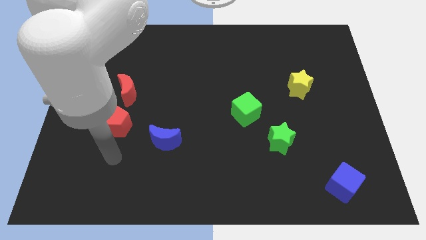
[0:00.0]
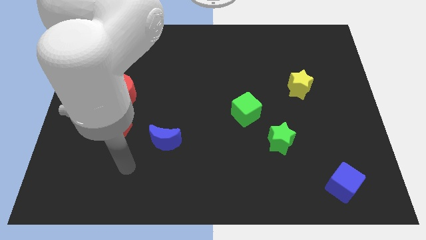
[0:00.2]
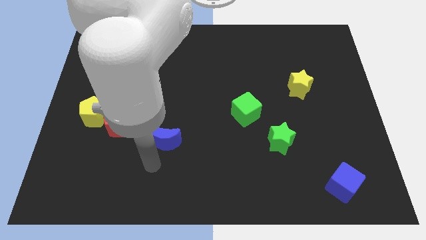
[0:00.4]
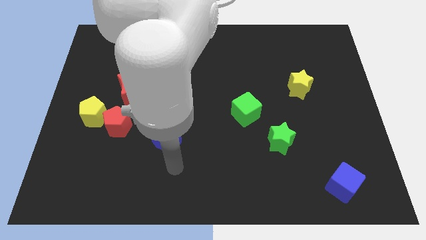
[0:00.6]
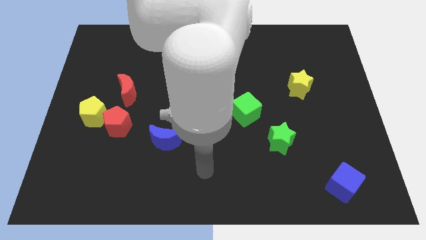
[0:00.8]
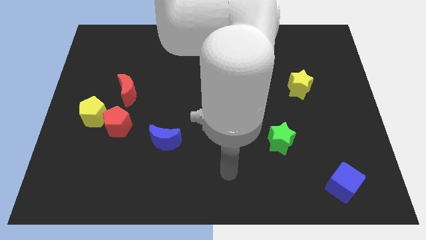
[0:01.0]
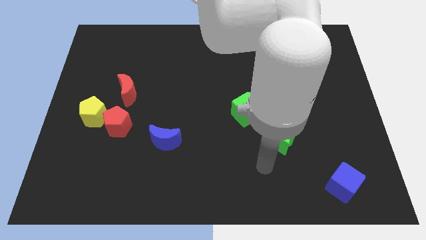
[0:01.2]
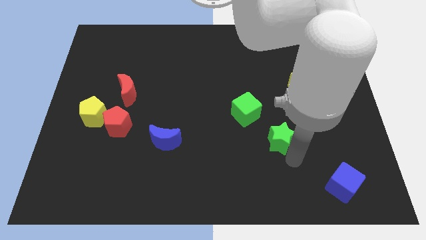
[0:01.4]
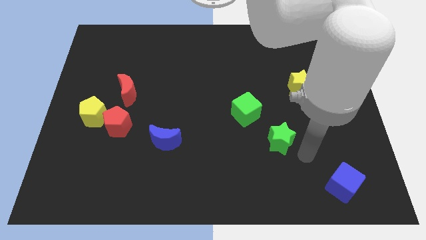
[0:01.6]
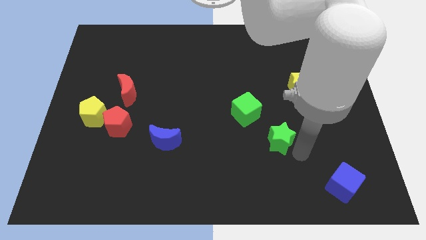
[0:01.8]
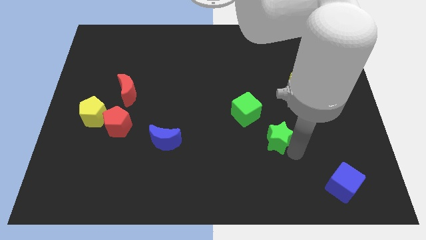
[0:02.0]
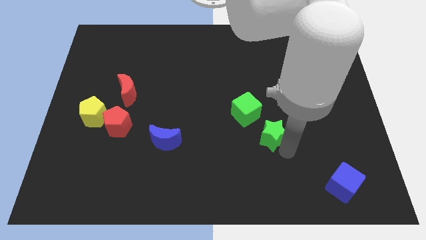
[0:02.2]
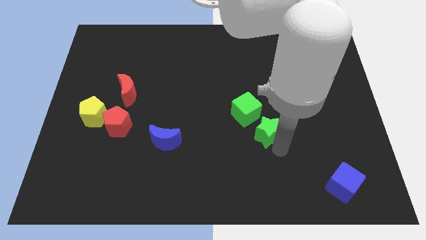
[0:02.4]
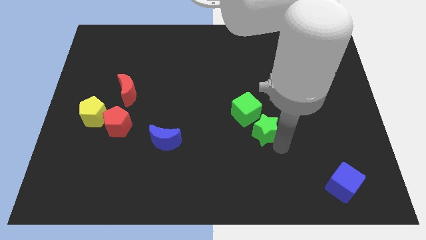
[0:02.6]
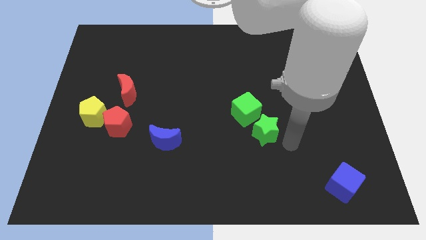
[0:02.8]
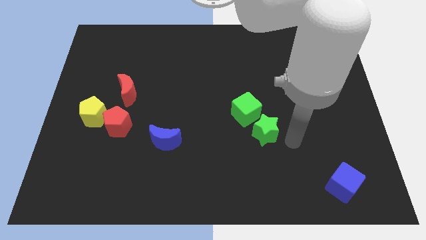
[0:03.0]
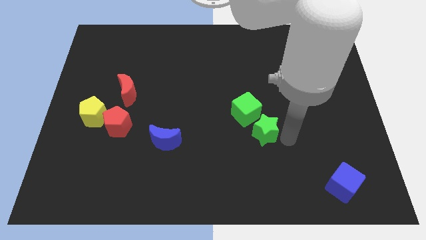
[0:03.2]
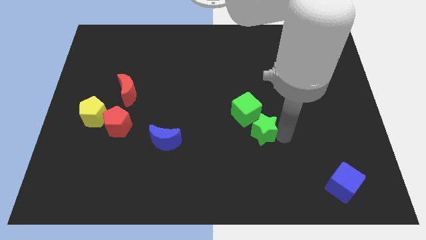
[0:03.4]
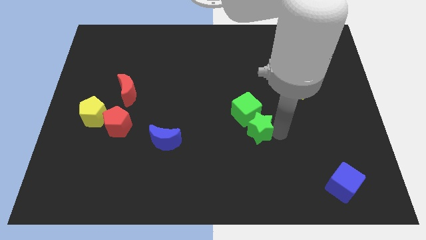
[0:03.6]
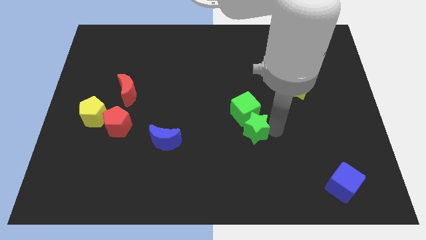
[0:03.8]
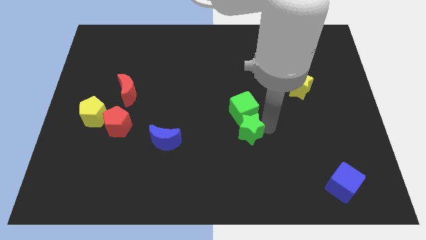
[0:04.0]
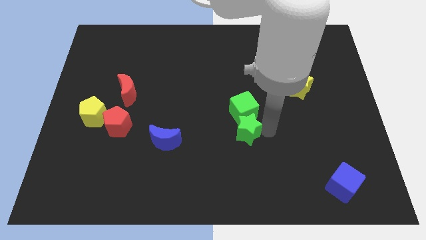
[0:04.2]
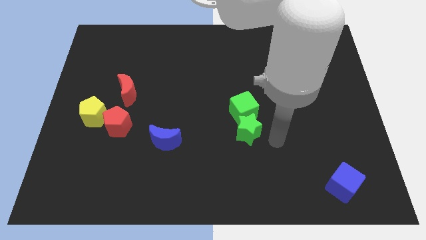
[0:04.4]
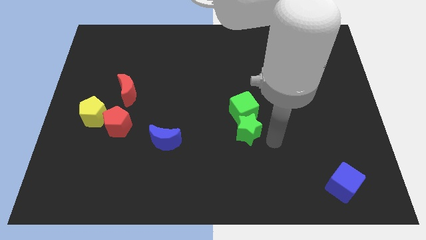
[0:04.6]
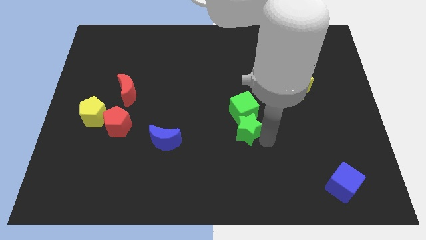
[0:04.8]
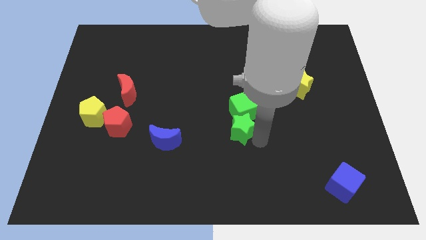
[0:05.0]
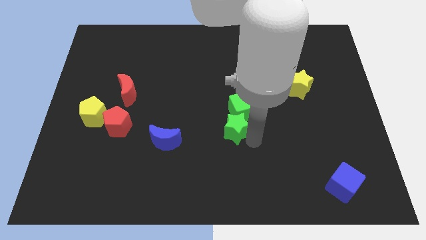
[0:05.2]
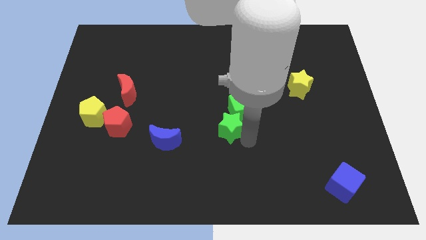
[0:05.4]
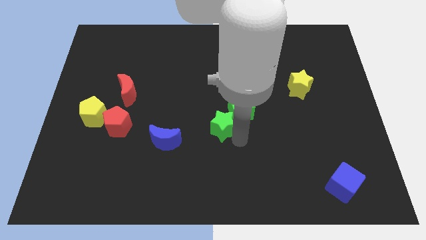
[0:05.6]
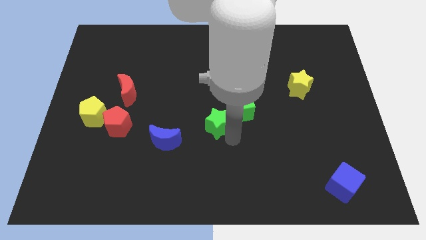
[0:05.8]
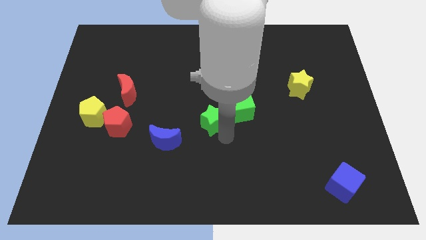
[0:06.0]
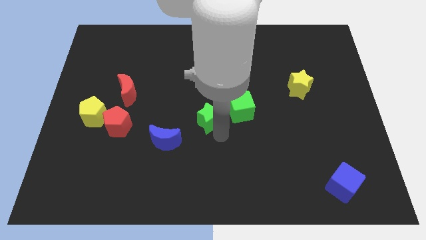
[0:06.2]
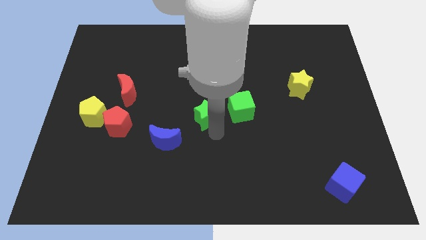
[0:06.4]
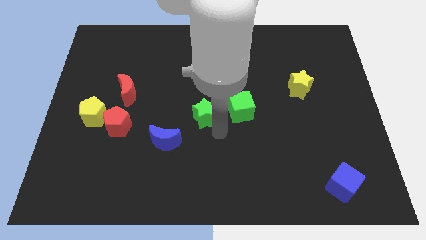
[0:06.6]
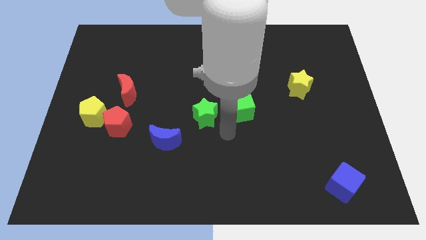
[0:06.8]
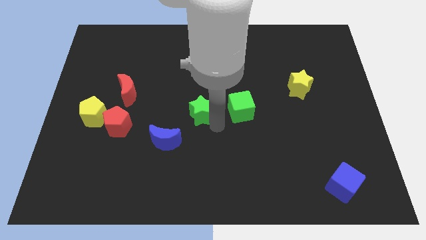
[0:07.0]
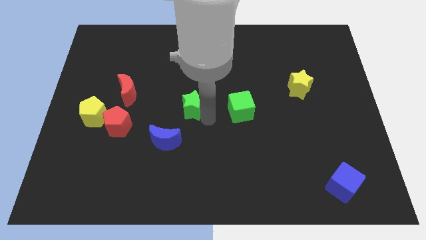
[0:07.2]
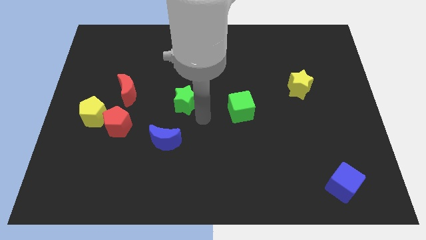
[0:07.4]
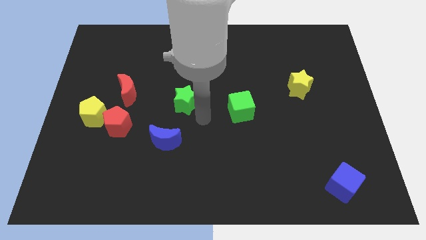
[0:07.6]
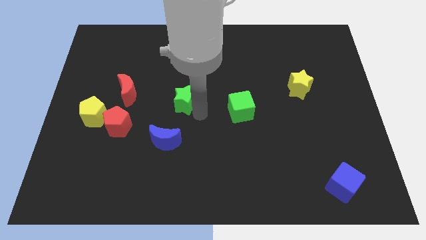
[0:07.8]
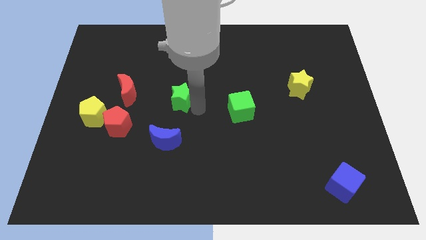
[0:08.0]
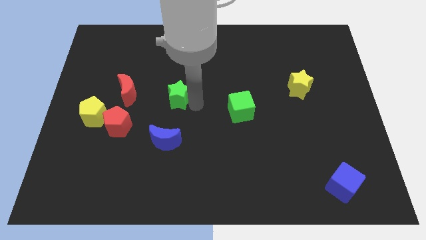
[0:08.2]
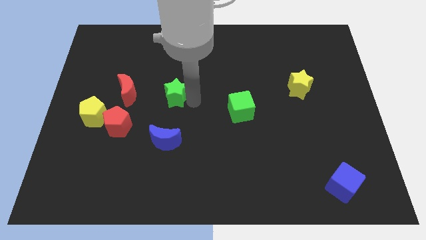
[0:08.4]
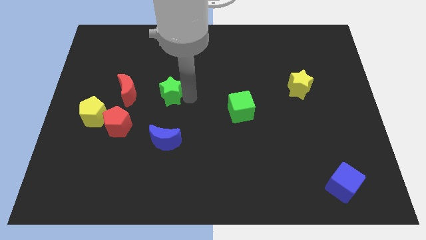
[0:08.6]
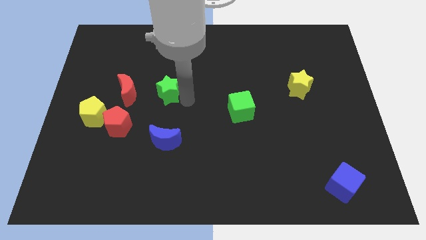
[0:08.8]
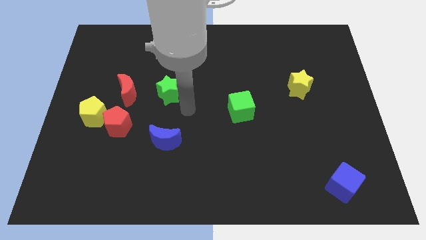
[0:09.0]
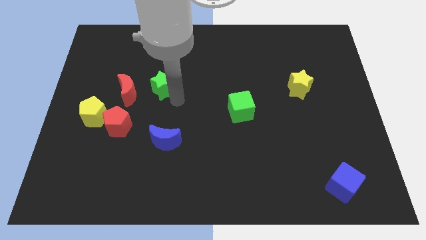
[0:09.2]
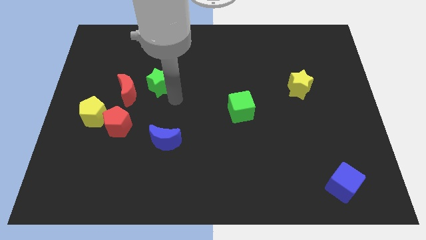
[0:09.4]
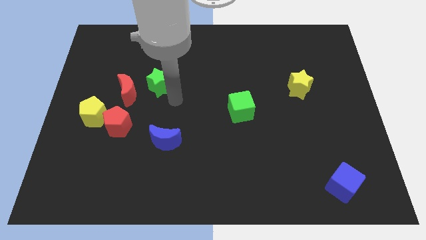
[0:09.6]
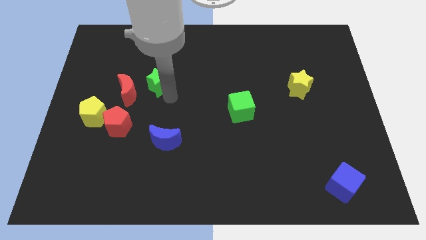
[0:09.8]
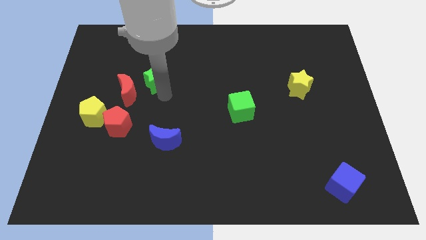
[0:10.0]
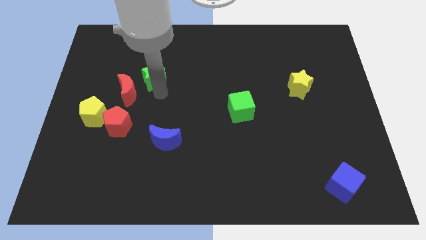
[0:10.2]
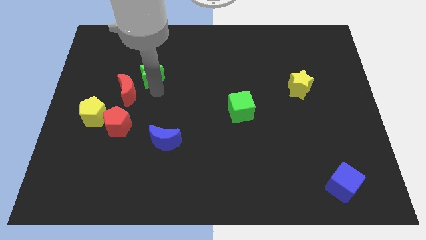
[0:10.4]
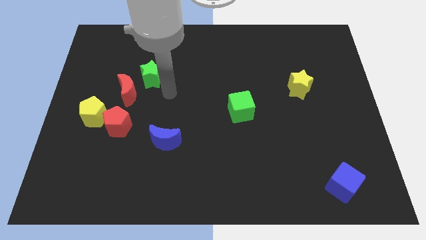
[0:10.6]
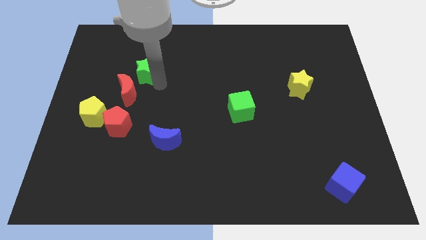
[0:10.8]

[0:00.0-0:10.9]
move the green star above the red moon

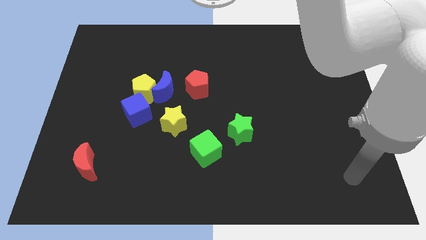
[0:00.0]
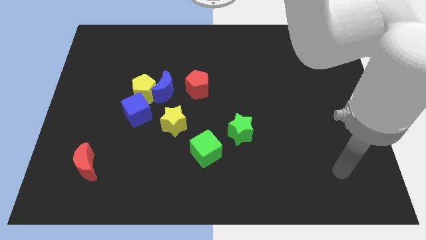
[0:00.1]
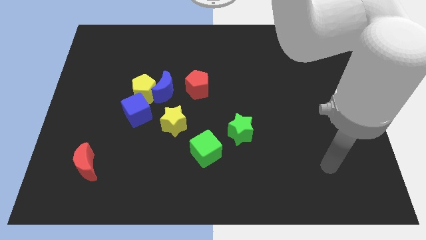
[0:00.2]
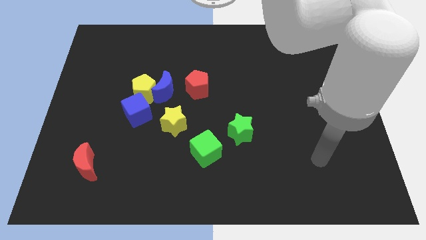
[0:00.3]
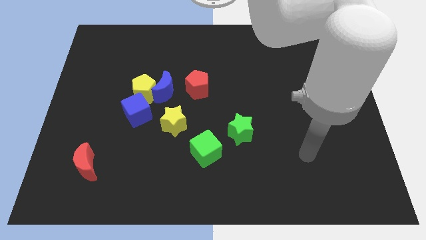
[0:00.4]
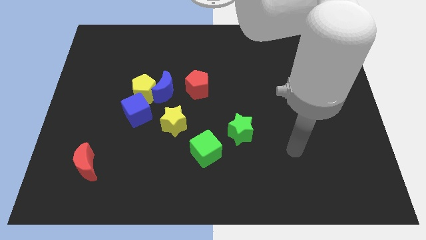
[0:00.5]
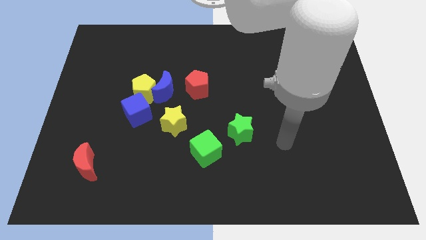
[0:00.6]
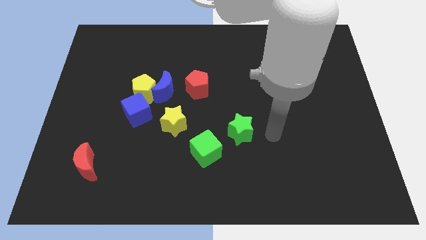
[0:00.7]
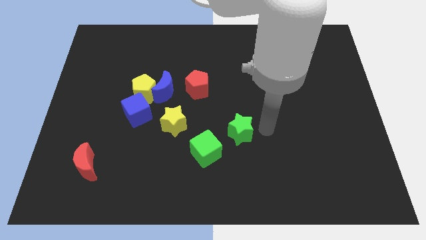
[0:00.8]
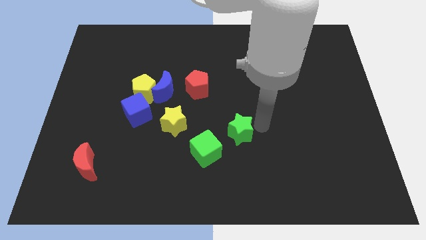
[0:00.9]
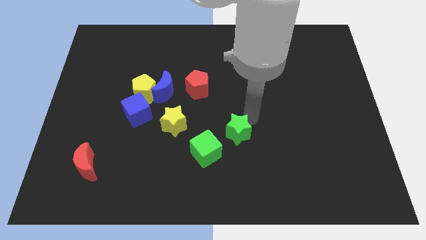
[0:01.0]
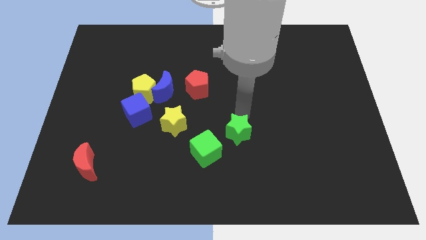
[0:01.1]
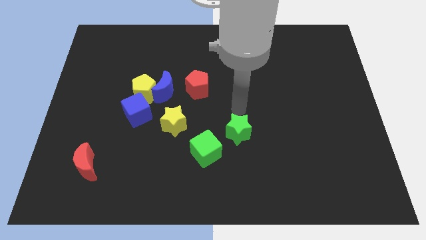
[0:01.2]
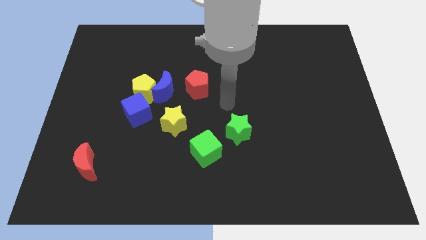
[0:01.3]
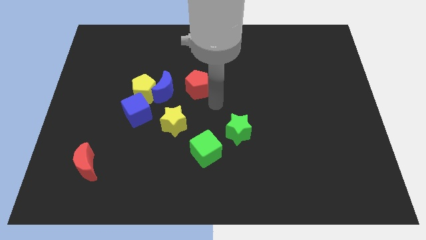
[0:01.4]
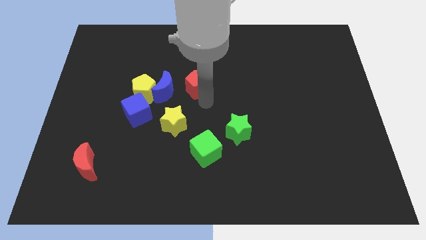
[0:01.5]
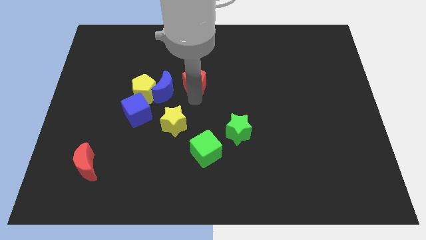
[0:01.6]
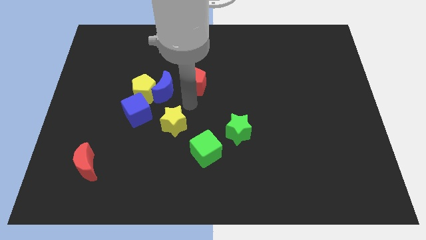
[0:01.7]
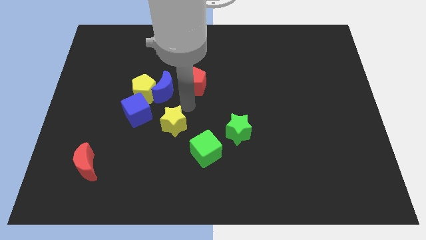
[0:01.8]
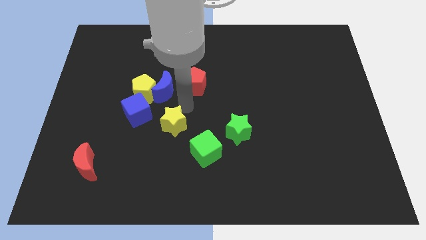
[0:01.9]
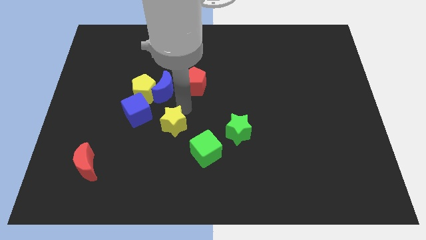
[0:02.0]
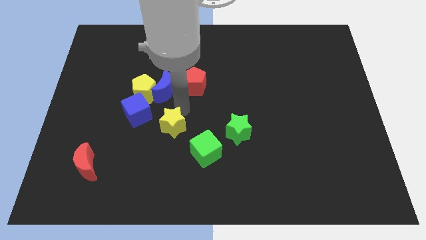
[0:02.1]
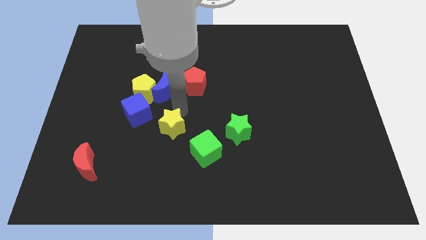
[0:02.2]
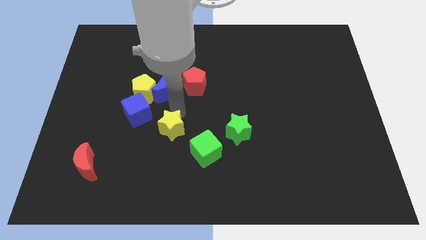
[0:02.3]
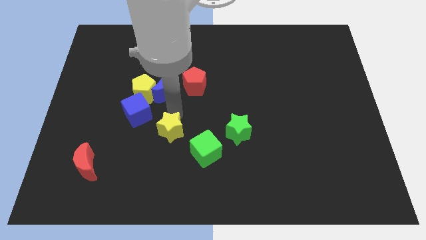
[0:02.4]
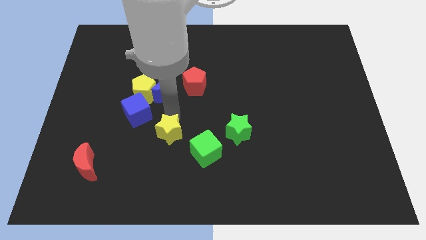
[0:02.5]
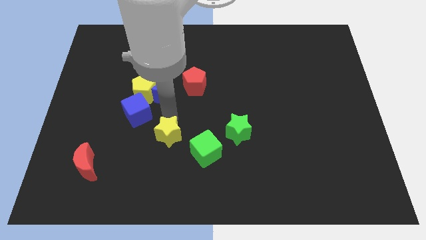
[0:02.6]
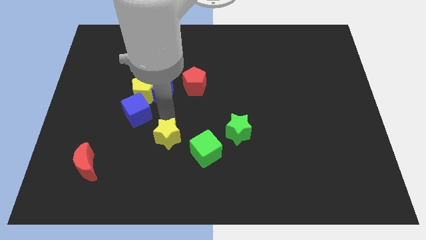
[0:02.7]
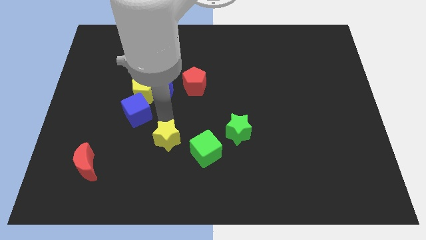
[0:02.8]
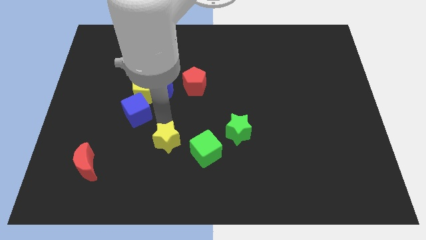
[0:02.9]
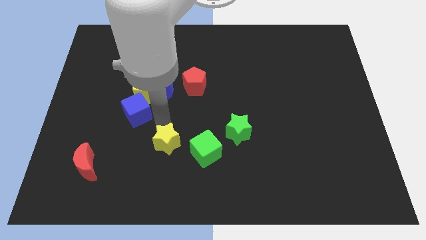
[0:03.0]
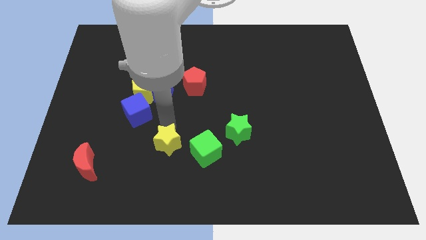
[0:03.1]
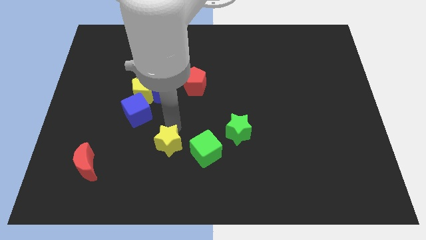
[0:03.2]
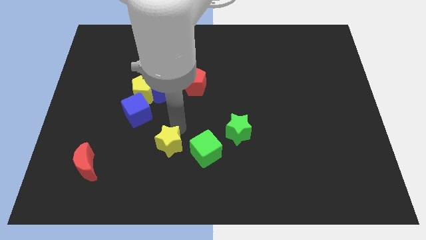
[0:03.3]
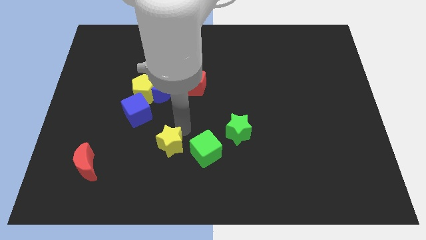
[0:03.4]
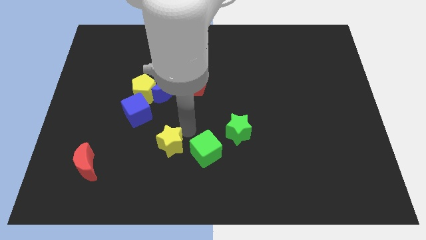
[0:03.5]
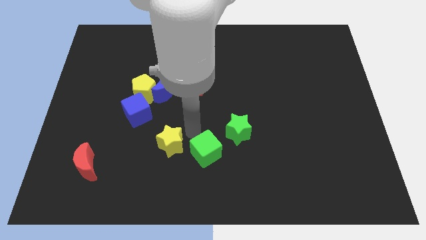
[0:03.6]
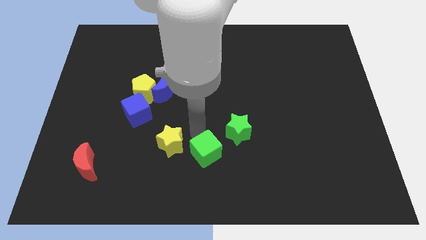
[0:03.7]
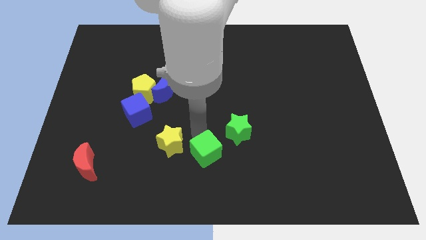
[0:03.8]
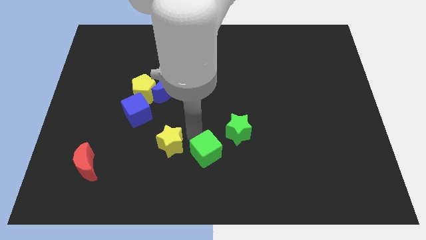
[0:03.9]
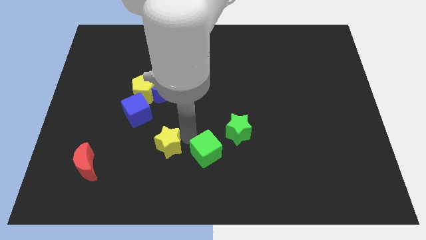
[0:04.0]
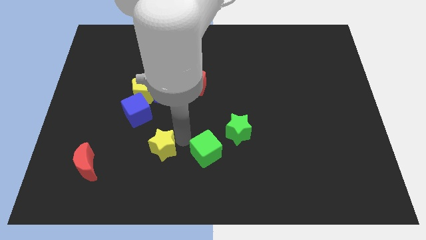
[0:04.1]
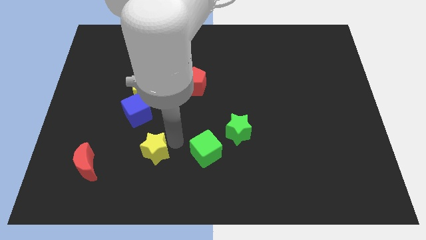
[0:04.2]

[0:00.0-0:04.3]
move the yellow star to the right side of the red moon
